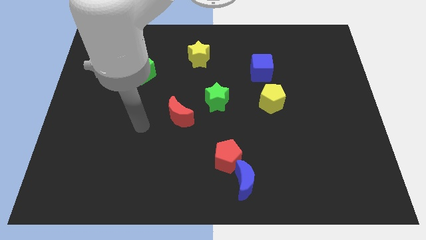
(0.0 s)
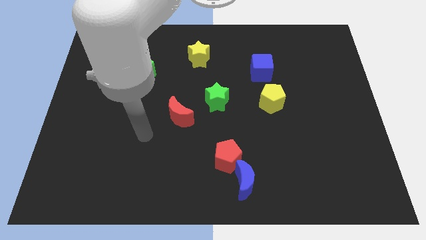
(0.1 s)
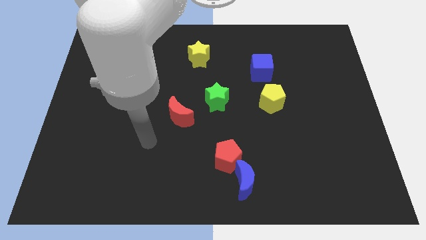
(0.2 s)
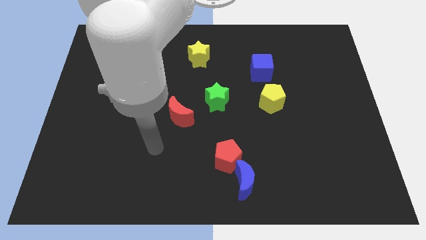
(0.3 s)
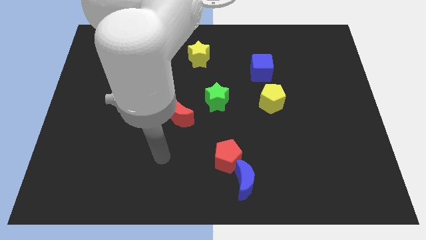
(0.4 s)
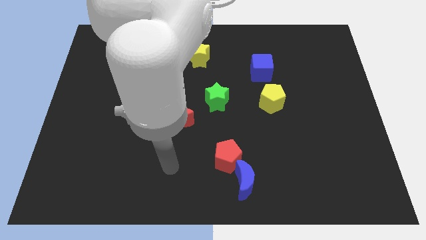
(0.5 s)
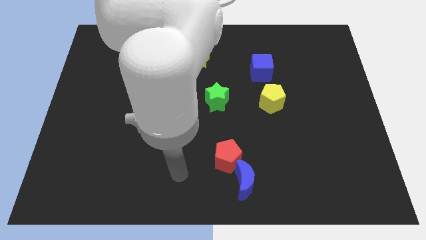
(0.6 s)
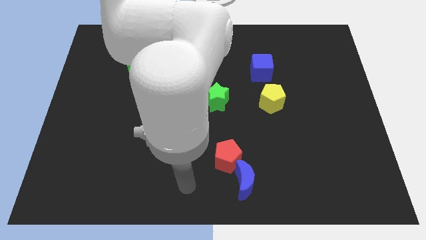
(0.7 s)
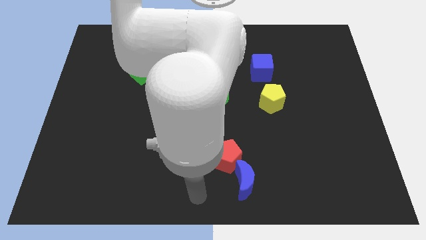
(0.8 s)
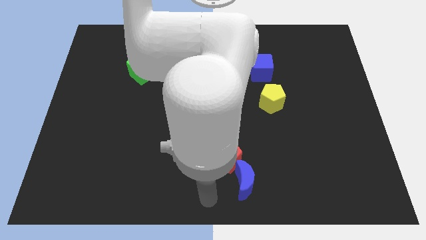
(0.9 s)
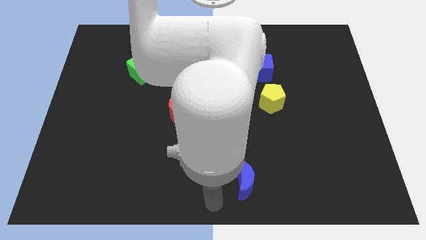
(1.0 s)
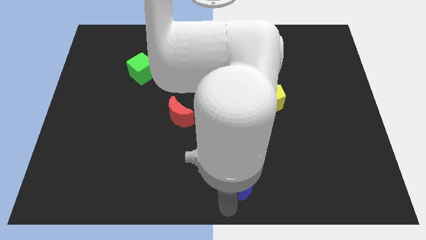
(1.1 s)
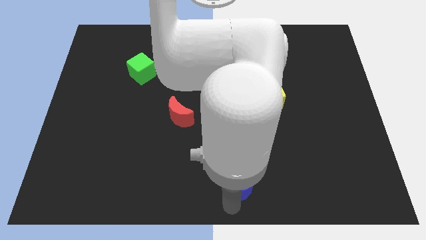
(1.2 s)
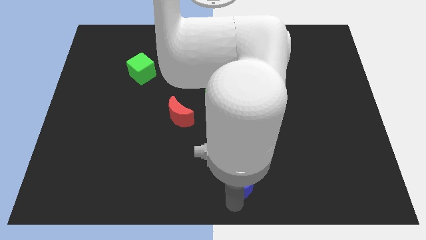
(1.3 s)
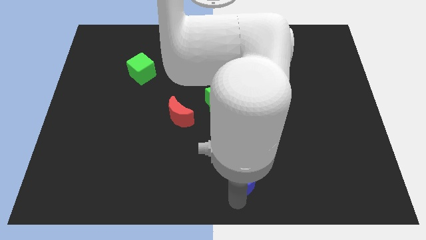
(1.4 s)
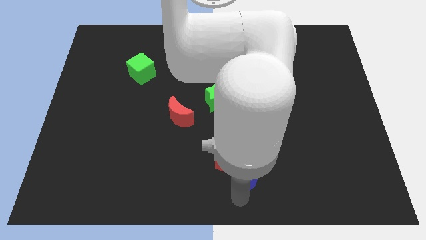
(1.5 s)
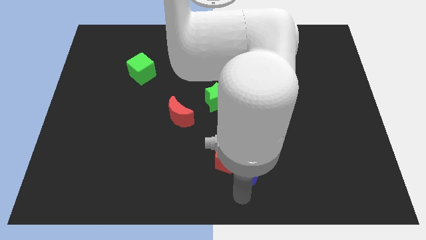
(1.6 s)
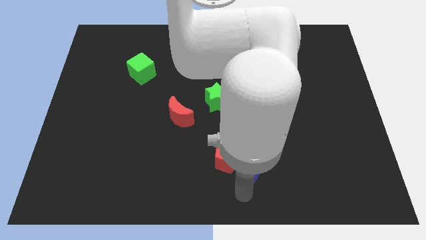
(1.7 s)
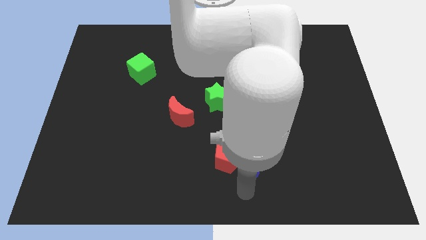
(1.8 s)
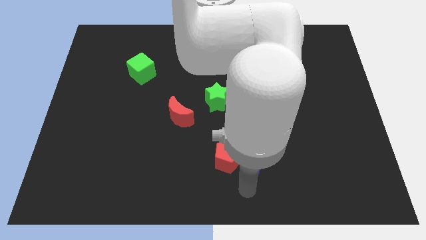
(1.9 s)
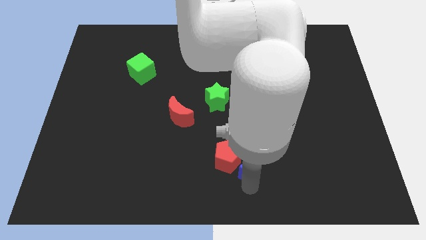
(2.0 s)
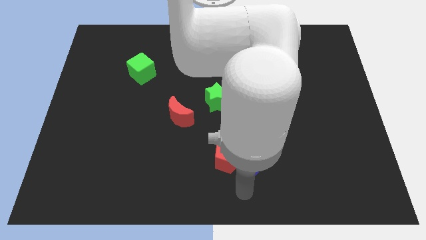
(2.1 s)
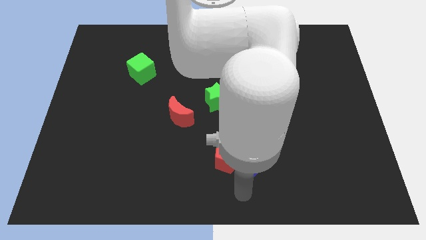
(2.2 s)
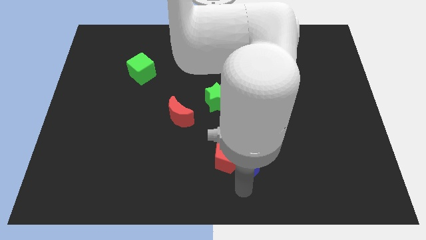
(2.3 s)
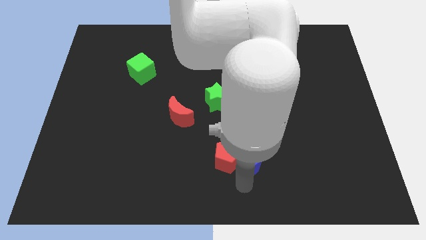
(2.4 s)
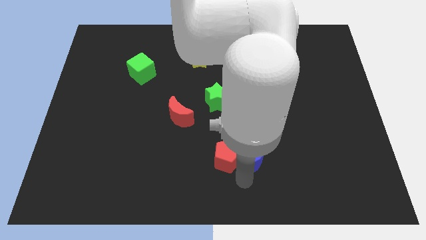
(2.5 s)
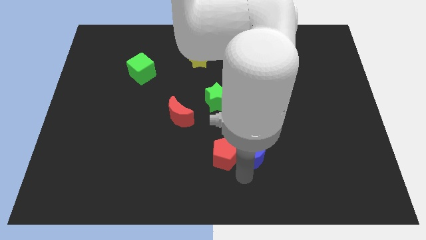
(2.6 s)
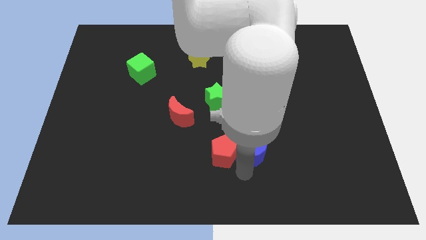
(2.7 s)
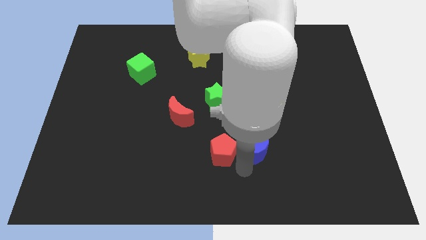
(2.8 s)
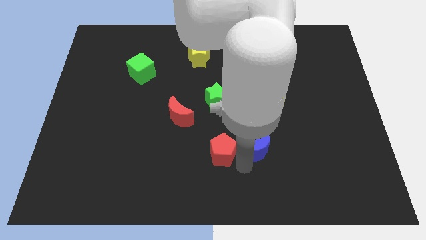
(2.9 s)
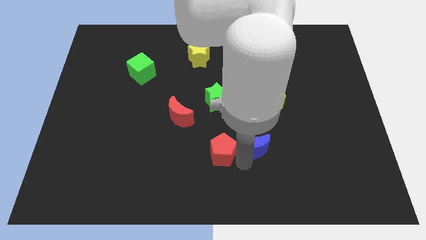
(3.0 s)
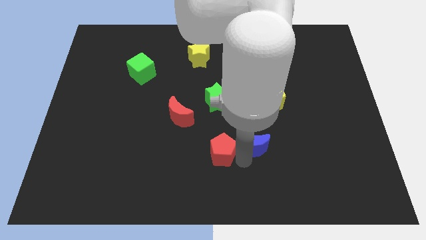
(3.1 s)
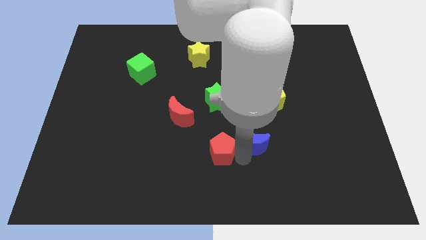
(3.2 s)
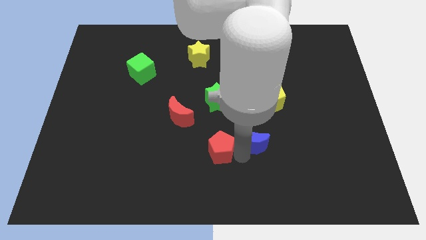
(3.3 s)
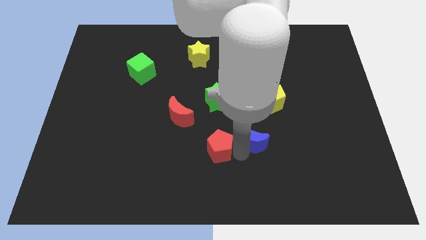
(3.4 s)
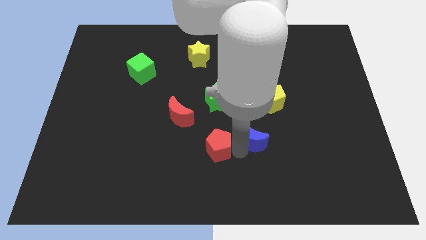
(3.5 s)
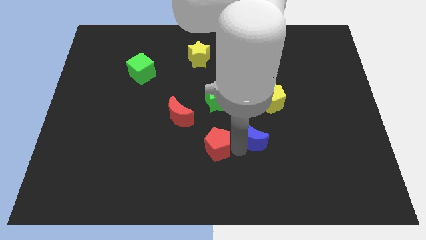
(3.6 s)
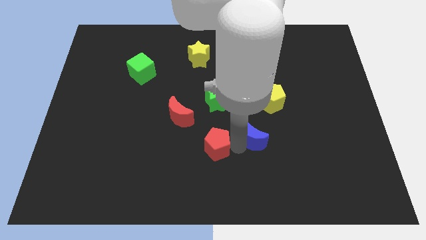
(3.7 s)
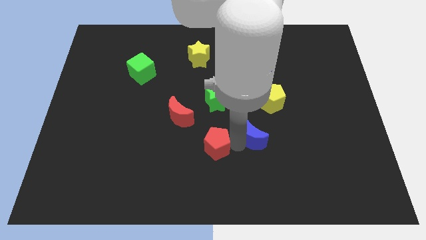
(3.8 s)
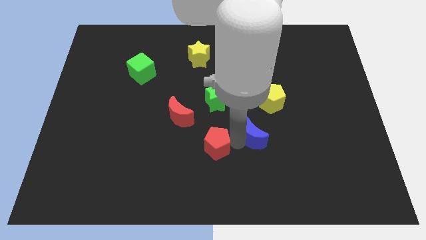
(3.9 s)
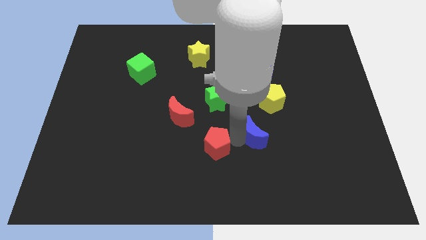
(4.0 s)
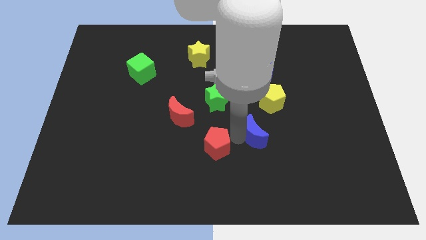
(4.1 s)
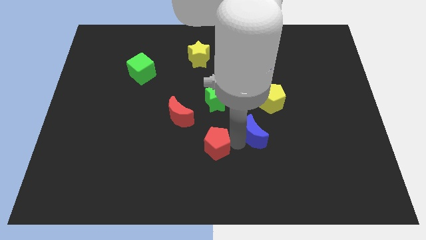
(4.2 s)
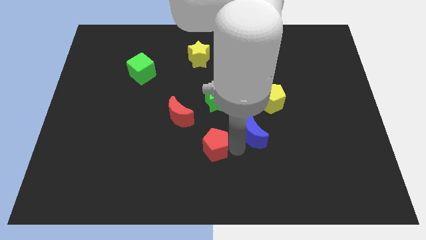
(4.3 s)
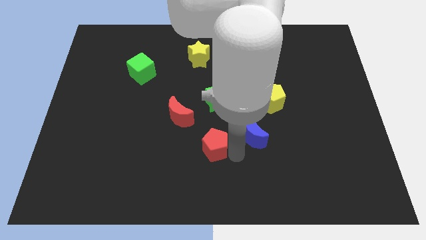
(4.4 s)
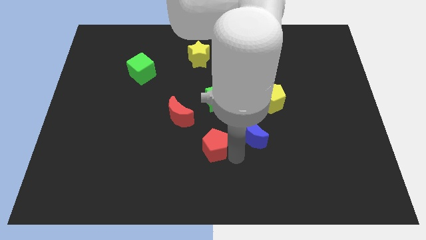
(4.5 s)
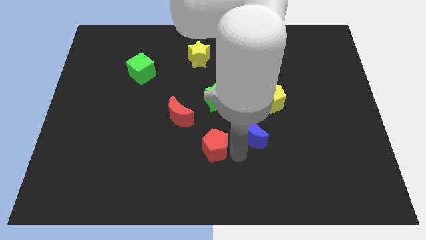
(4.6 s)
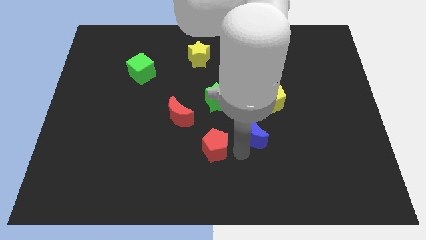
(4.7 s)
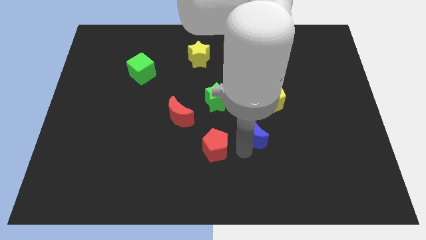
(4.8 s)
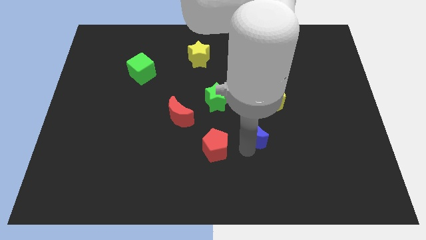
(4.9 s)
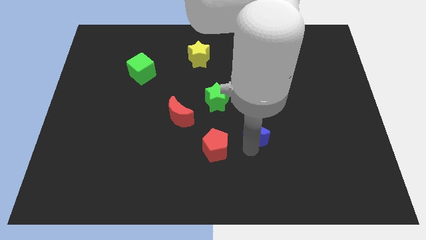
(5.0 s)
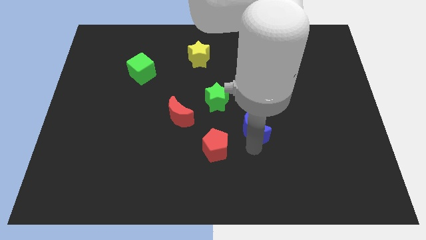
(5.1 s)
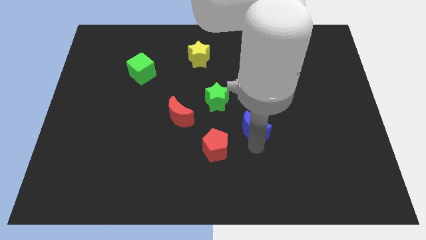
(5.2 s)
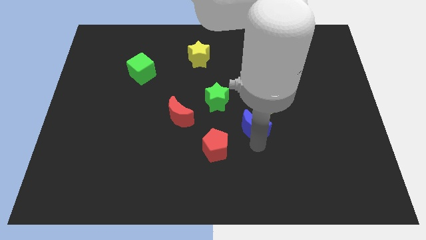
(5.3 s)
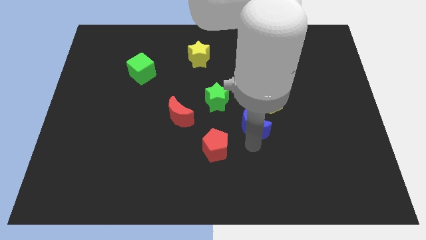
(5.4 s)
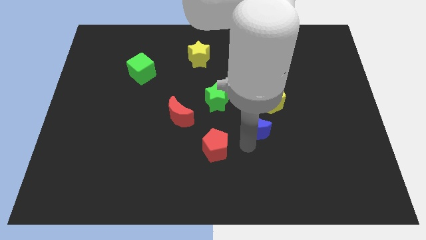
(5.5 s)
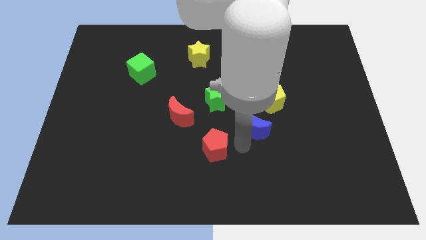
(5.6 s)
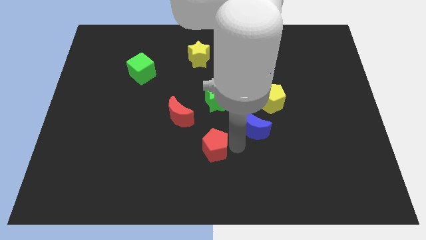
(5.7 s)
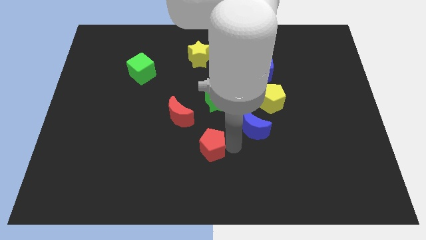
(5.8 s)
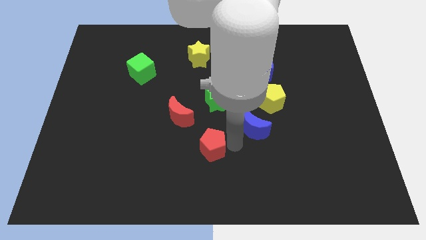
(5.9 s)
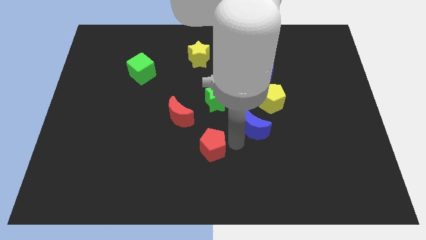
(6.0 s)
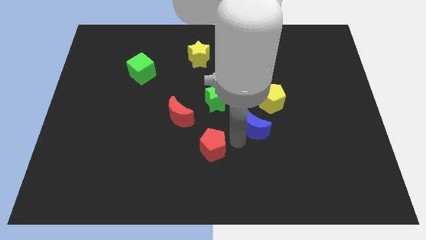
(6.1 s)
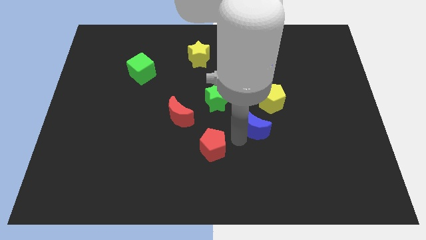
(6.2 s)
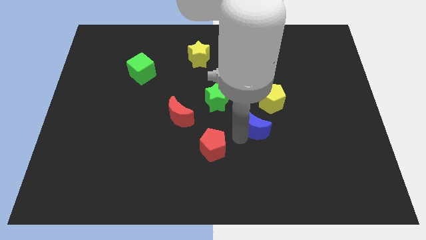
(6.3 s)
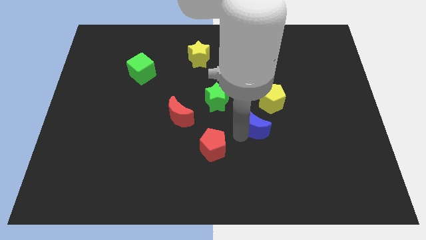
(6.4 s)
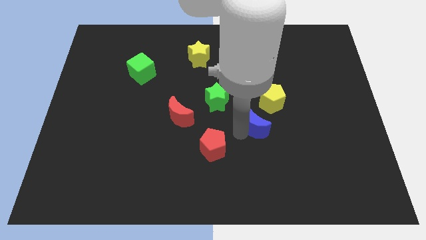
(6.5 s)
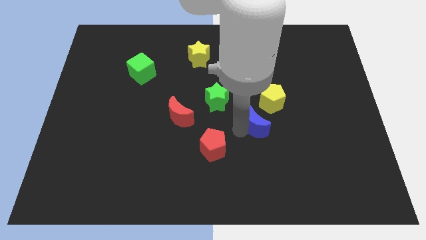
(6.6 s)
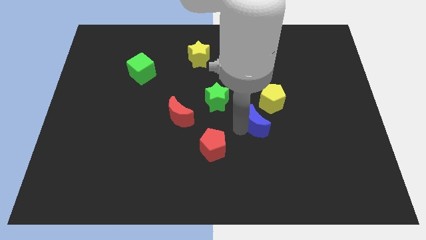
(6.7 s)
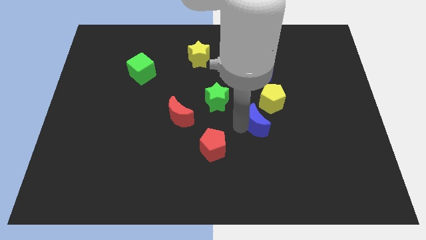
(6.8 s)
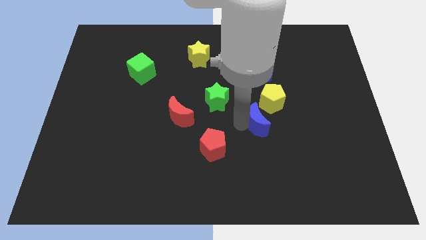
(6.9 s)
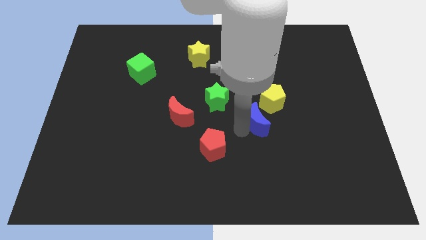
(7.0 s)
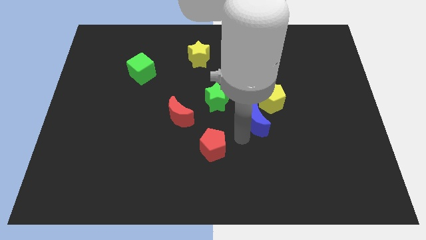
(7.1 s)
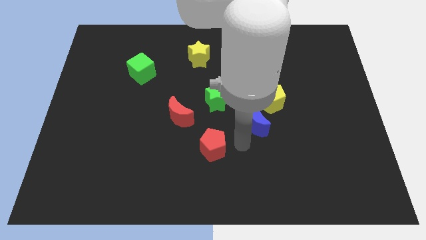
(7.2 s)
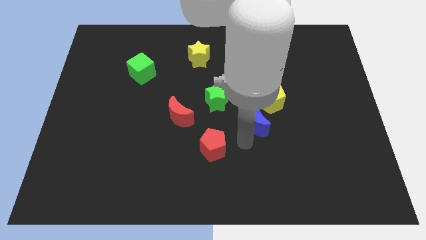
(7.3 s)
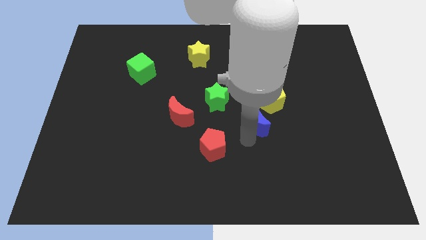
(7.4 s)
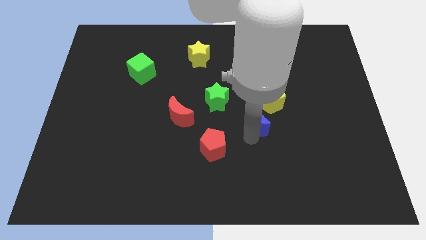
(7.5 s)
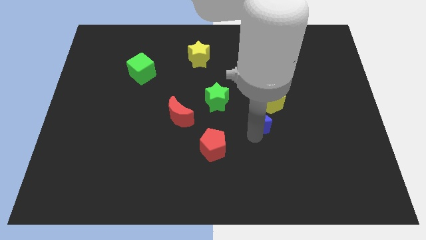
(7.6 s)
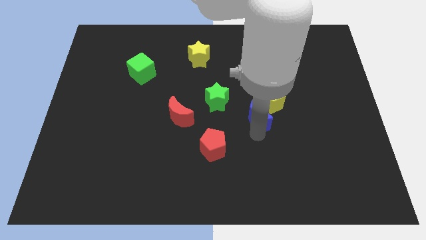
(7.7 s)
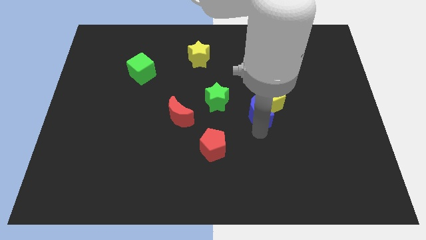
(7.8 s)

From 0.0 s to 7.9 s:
slide the blue moon close to the yellow pentagon

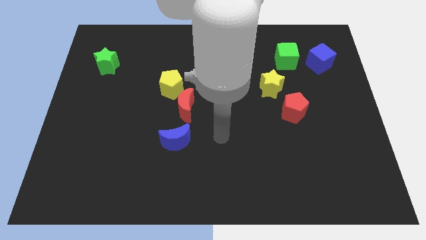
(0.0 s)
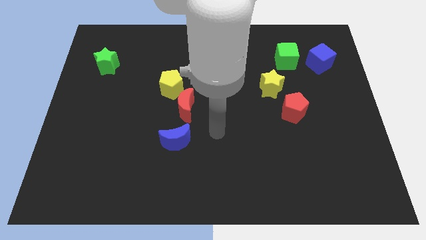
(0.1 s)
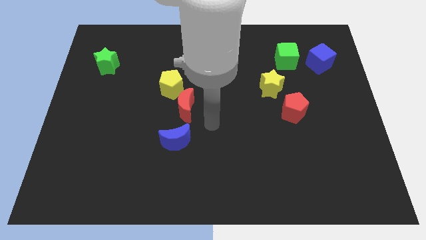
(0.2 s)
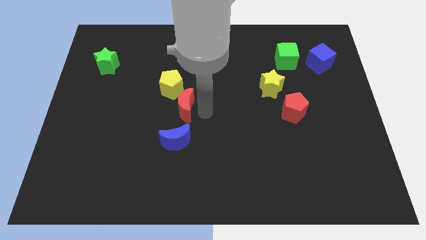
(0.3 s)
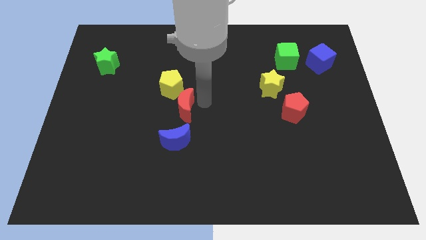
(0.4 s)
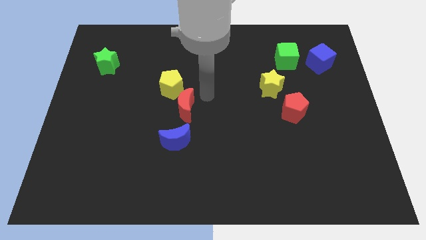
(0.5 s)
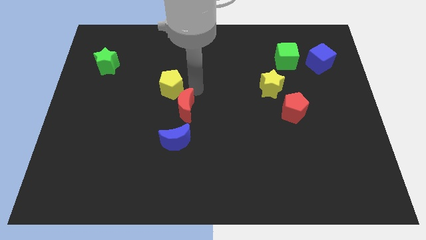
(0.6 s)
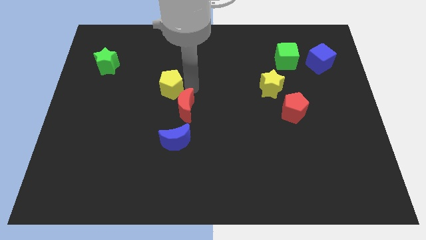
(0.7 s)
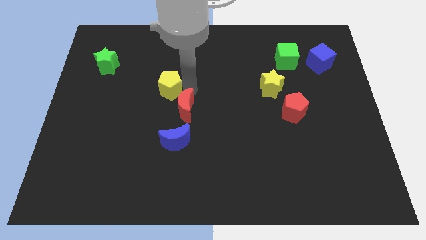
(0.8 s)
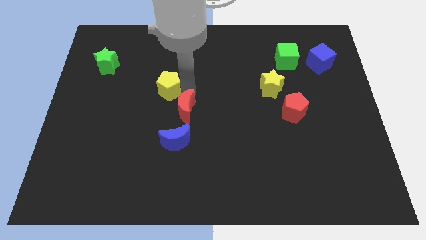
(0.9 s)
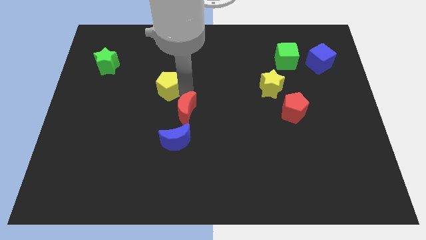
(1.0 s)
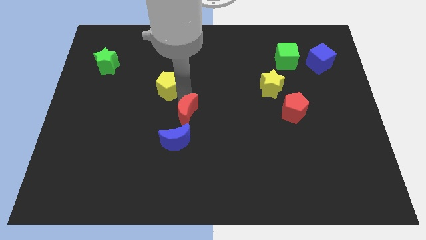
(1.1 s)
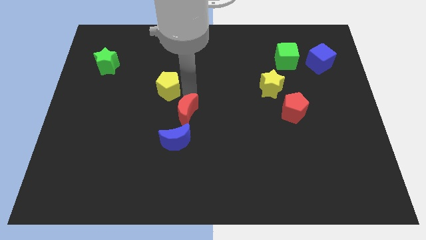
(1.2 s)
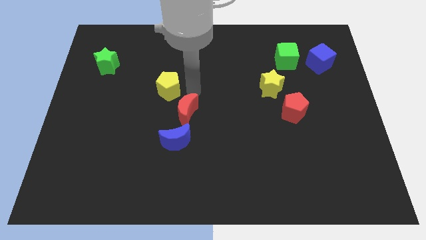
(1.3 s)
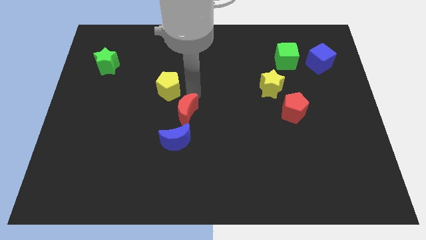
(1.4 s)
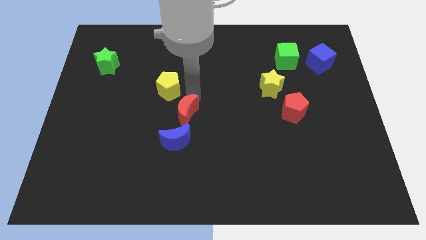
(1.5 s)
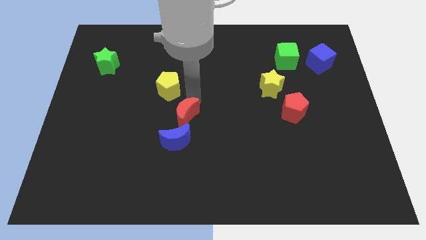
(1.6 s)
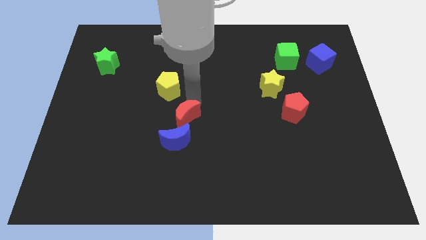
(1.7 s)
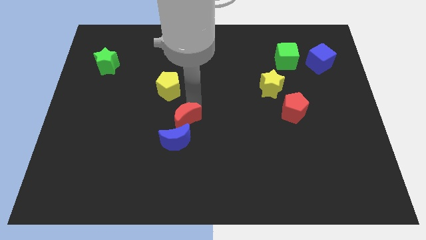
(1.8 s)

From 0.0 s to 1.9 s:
push the red moon to the blue moon
